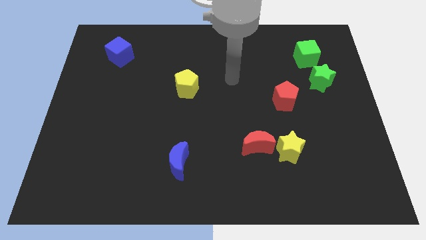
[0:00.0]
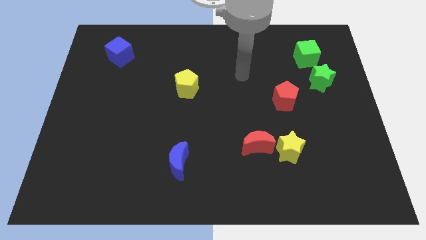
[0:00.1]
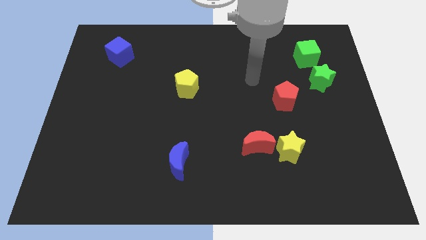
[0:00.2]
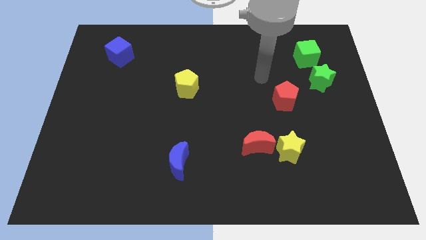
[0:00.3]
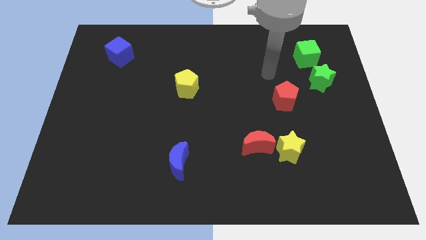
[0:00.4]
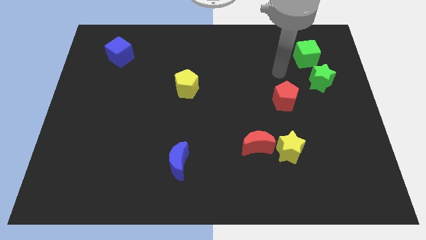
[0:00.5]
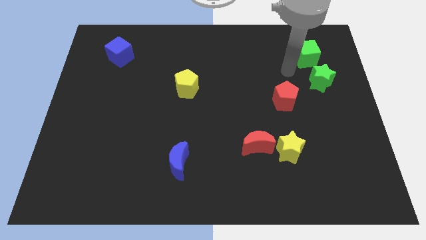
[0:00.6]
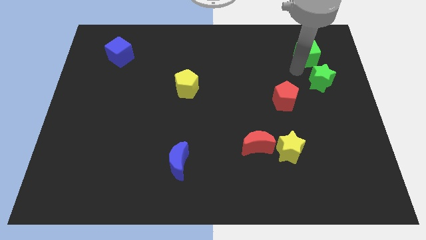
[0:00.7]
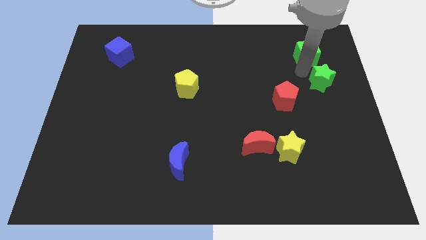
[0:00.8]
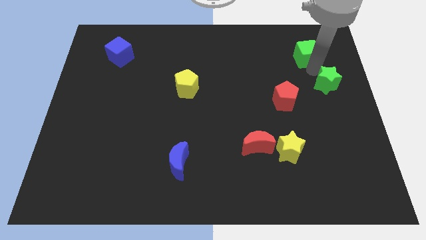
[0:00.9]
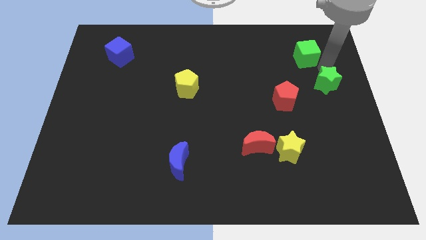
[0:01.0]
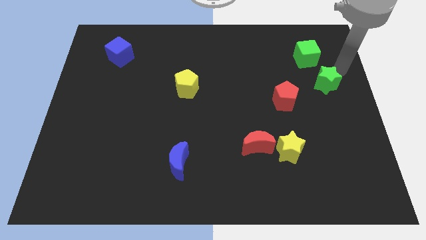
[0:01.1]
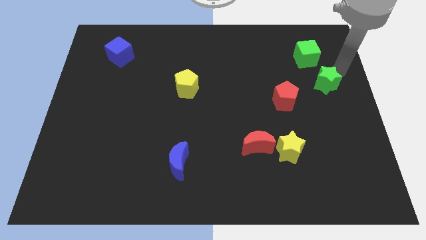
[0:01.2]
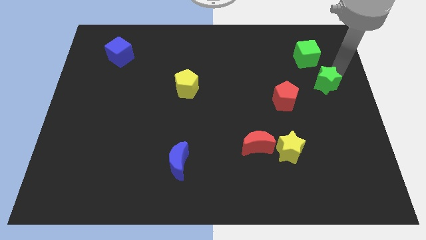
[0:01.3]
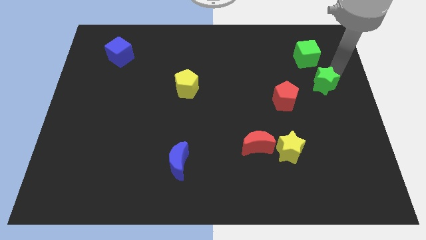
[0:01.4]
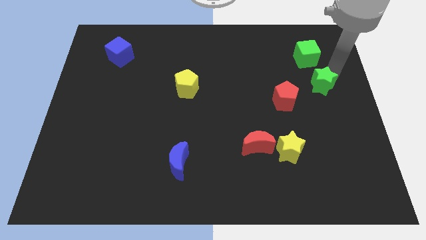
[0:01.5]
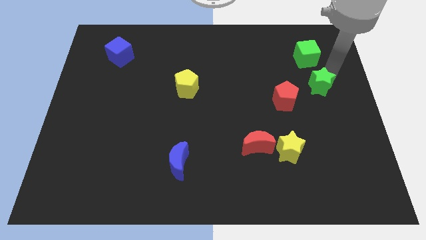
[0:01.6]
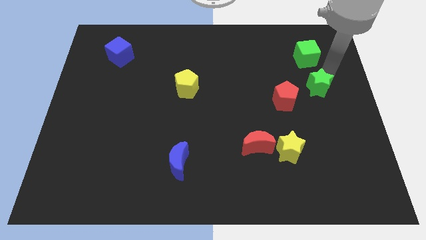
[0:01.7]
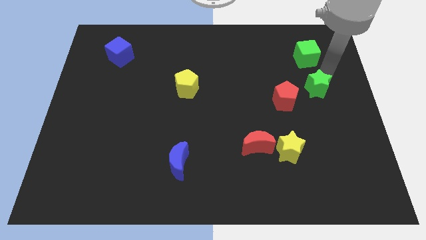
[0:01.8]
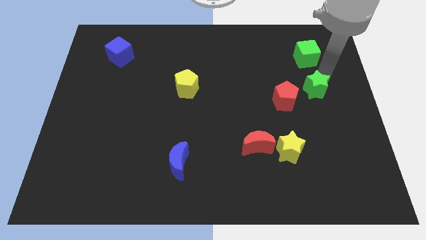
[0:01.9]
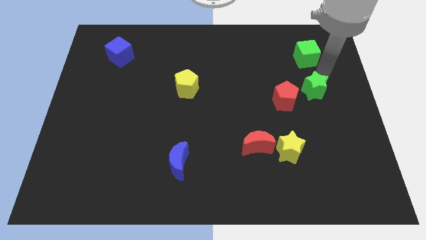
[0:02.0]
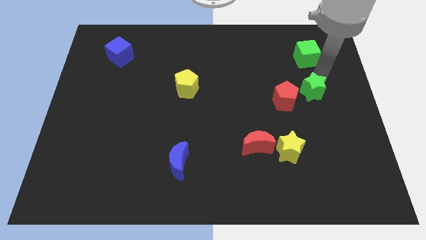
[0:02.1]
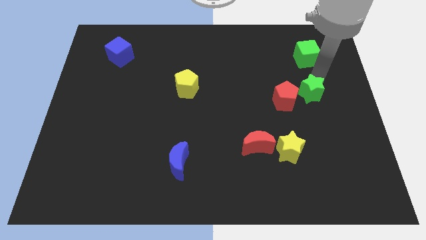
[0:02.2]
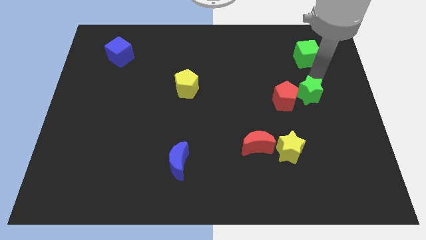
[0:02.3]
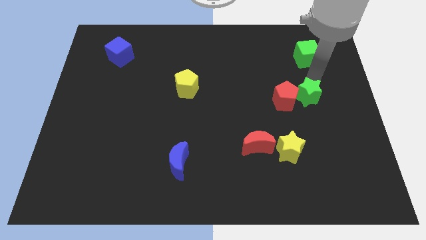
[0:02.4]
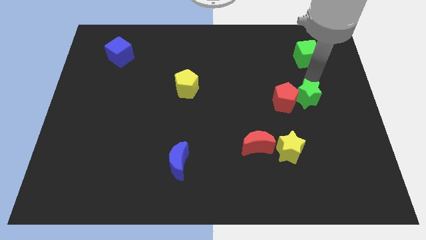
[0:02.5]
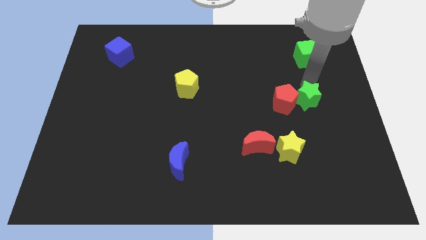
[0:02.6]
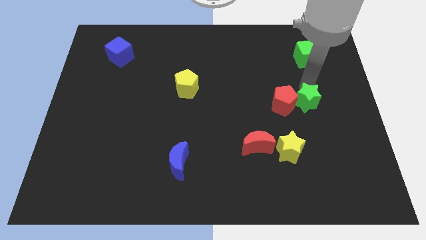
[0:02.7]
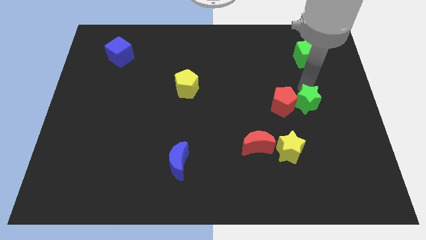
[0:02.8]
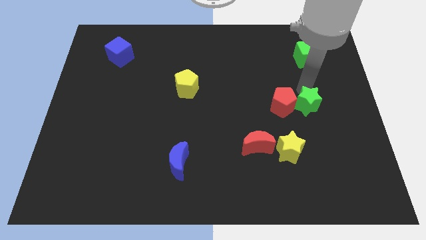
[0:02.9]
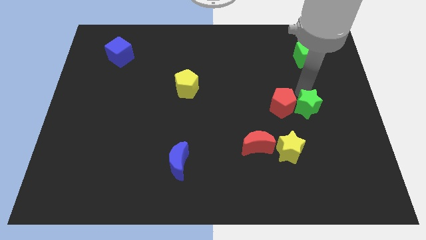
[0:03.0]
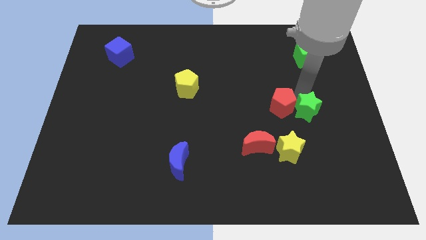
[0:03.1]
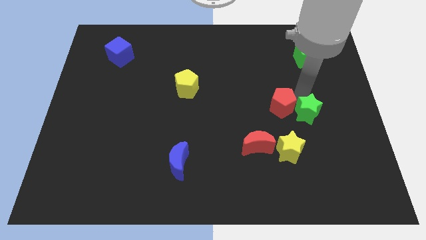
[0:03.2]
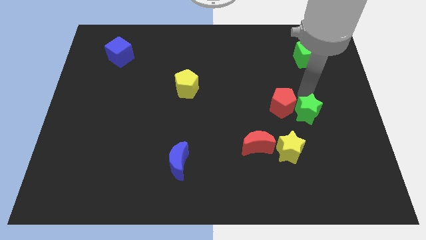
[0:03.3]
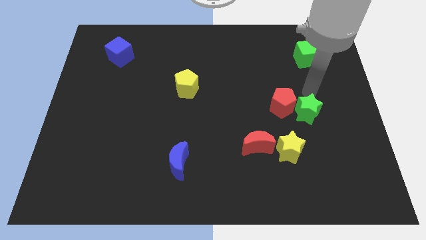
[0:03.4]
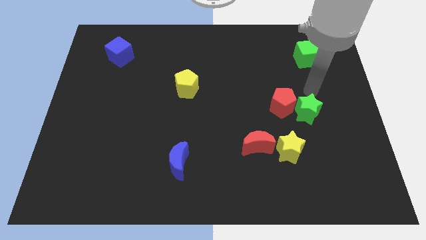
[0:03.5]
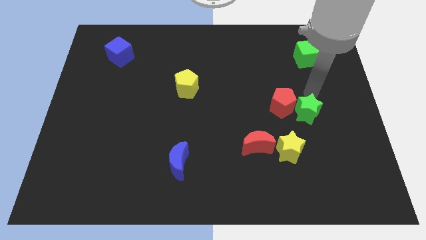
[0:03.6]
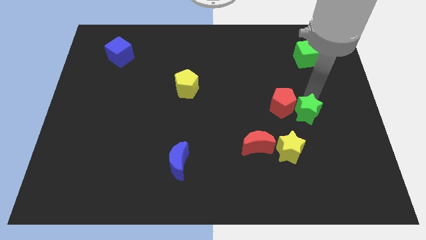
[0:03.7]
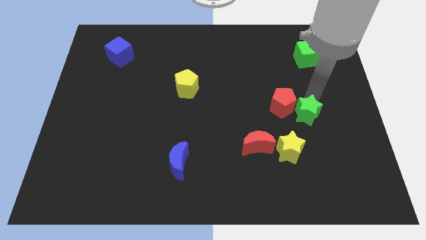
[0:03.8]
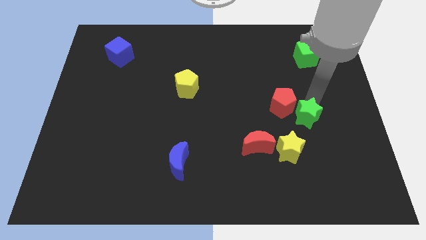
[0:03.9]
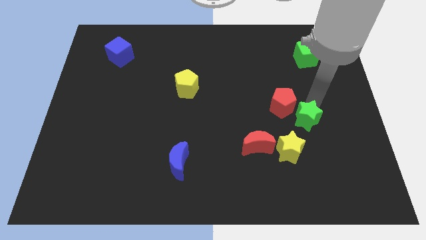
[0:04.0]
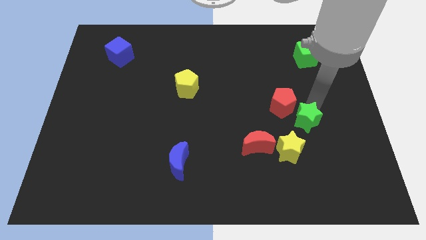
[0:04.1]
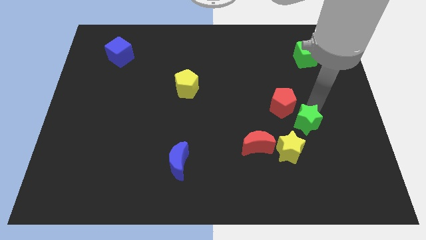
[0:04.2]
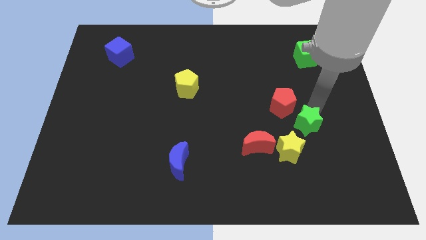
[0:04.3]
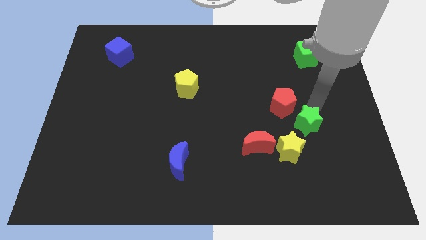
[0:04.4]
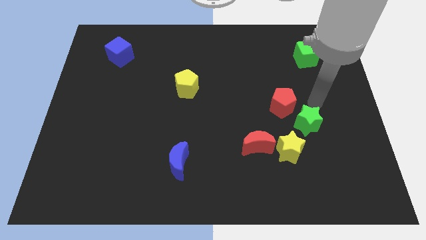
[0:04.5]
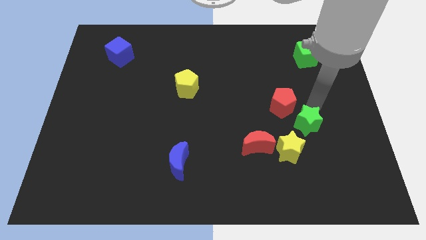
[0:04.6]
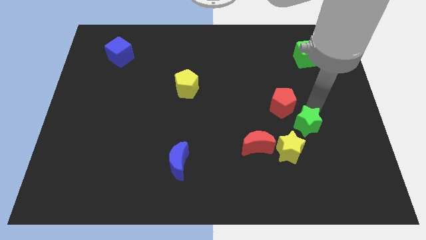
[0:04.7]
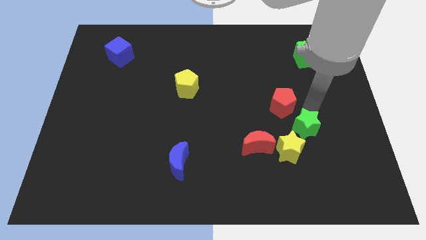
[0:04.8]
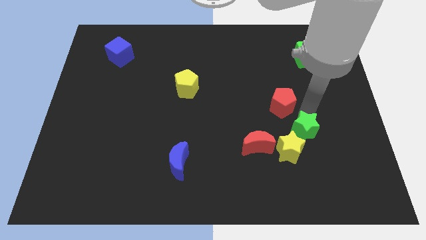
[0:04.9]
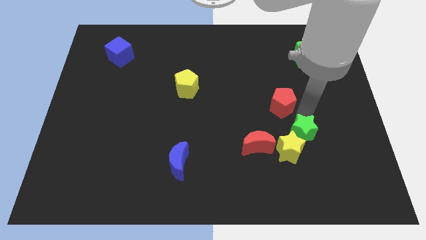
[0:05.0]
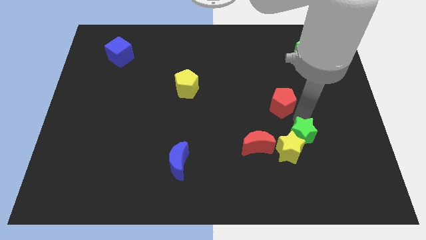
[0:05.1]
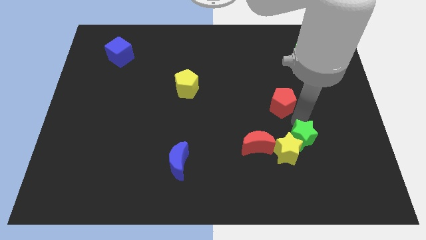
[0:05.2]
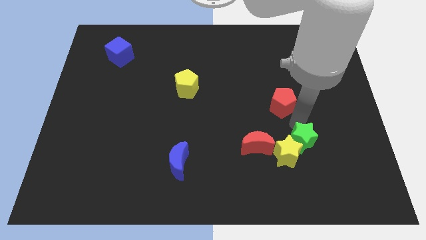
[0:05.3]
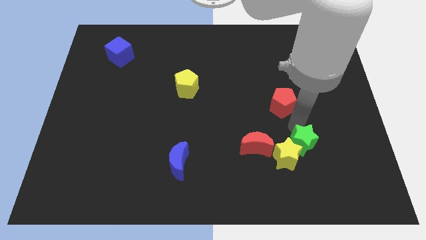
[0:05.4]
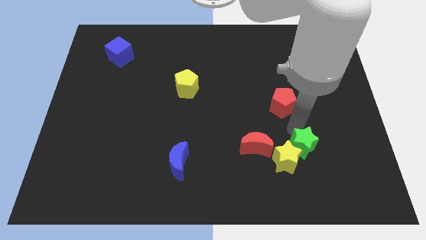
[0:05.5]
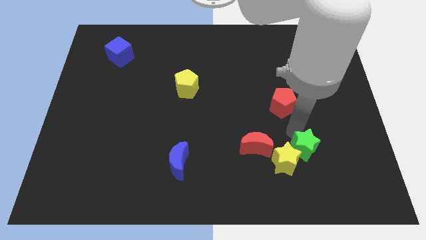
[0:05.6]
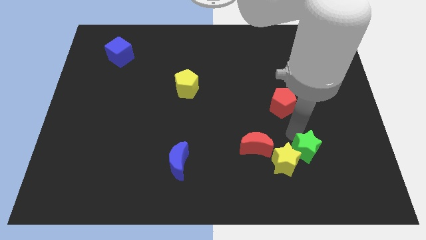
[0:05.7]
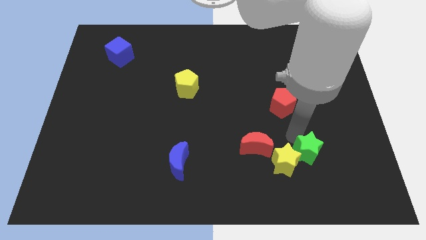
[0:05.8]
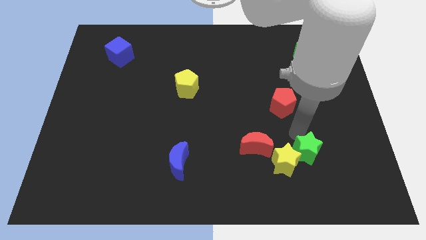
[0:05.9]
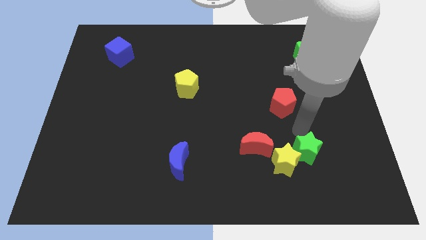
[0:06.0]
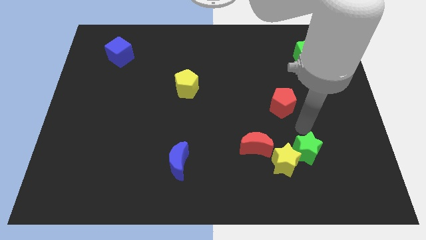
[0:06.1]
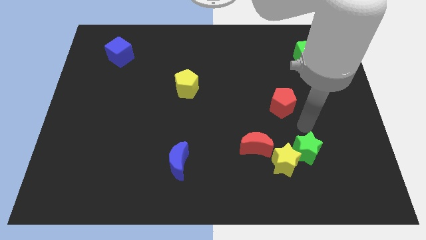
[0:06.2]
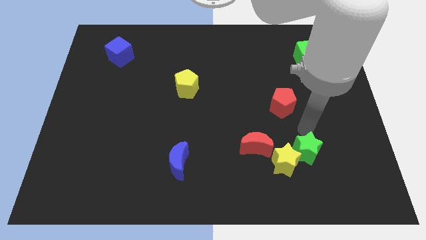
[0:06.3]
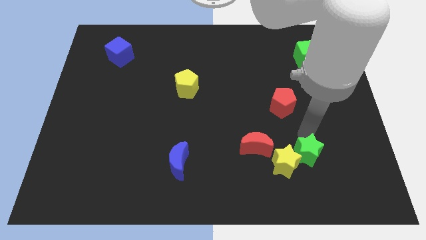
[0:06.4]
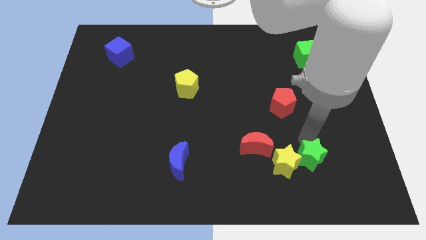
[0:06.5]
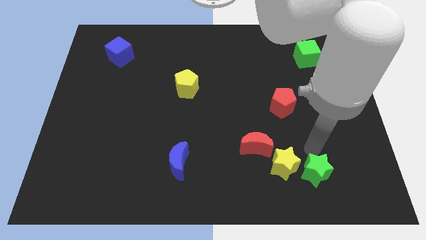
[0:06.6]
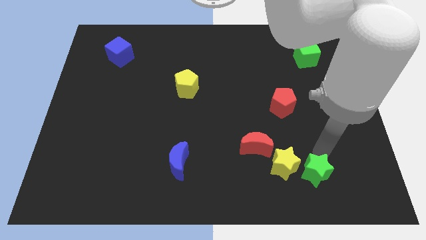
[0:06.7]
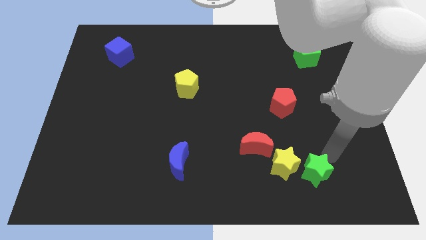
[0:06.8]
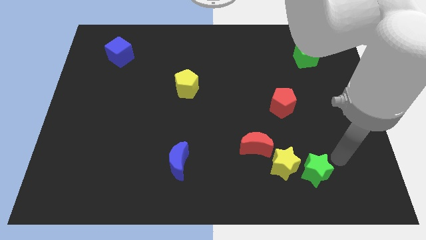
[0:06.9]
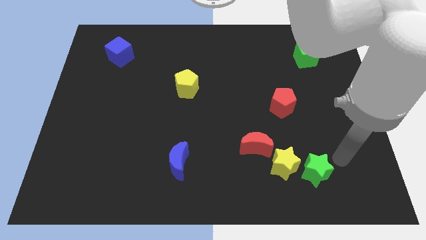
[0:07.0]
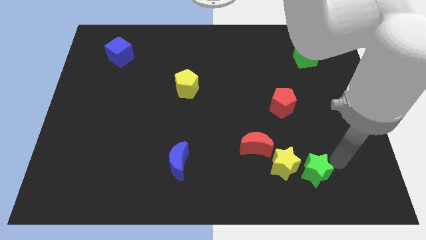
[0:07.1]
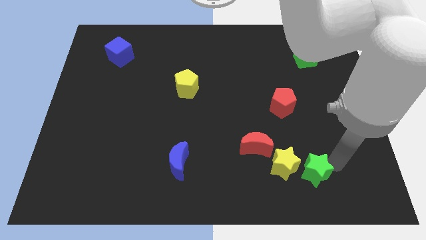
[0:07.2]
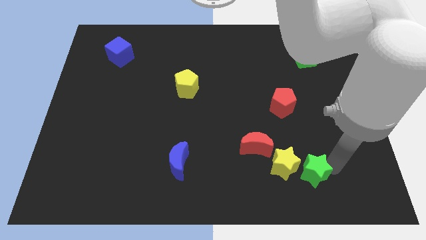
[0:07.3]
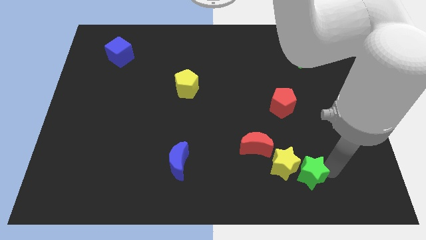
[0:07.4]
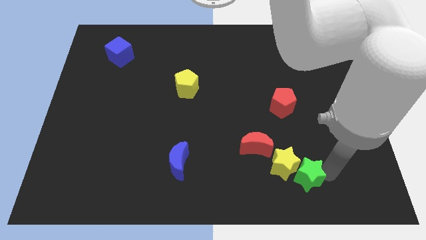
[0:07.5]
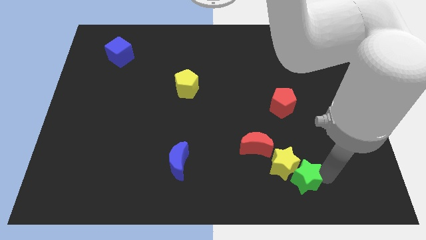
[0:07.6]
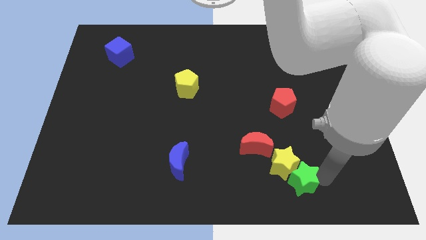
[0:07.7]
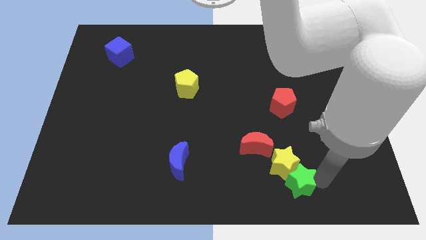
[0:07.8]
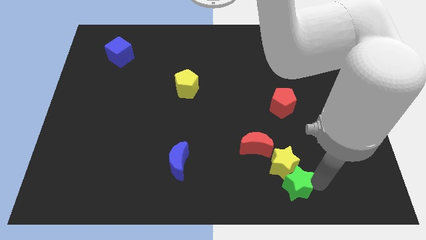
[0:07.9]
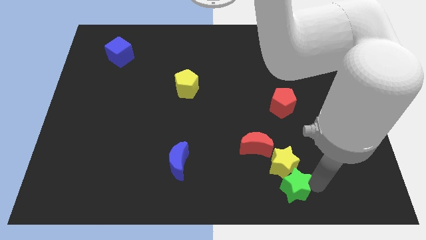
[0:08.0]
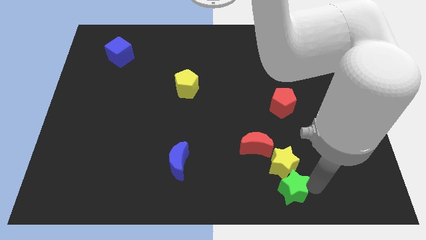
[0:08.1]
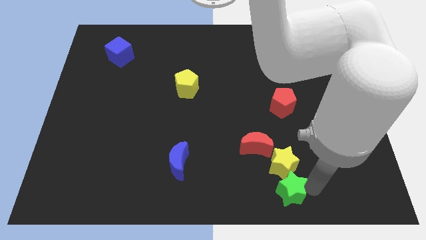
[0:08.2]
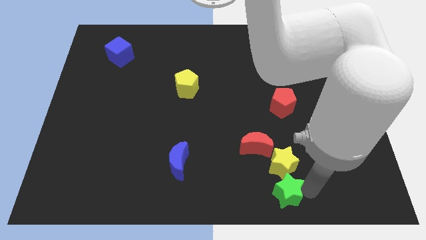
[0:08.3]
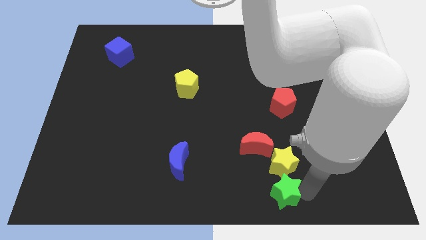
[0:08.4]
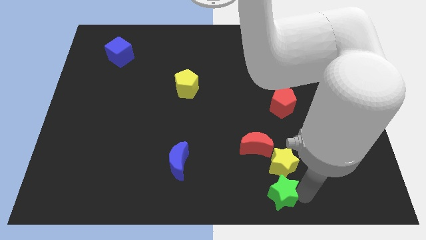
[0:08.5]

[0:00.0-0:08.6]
put the green star to the bottom
